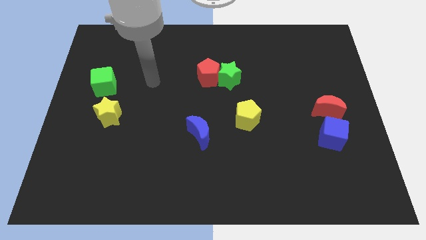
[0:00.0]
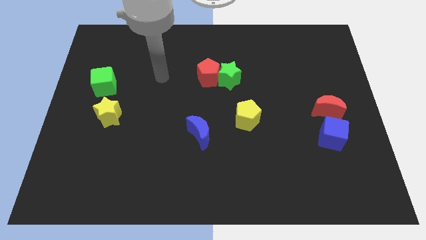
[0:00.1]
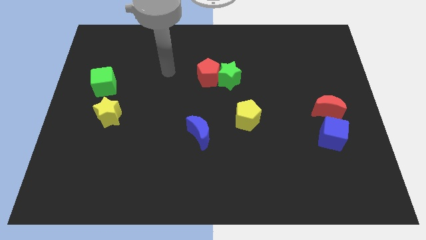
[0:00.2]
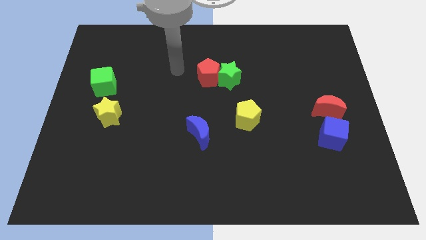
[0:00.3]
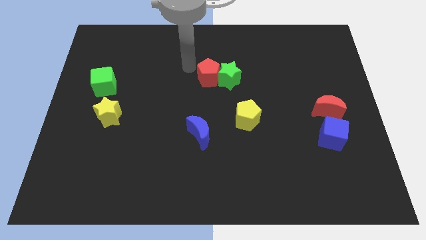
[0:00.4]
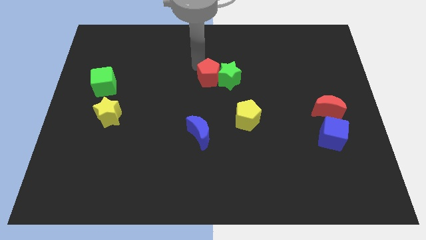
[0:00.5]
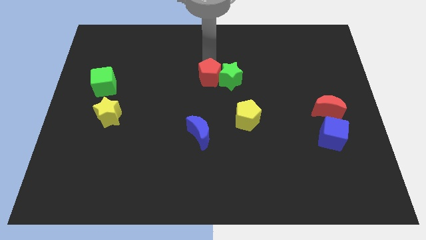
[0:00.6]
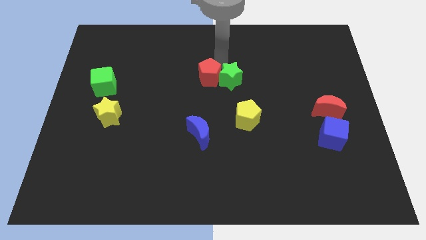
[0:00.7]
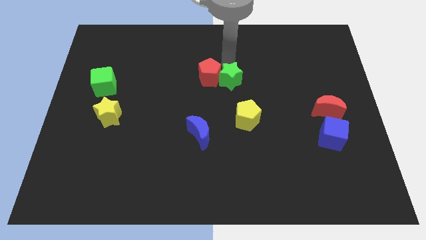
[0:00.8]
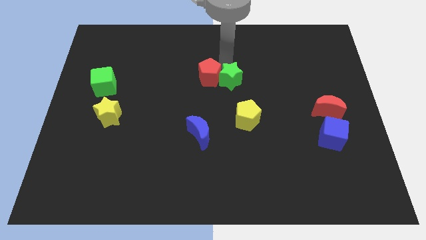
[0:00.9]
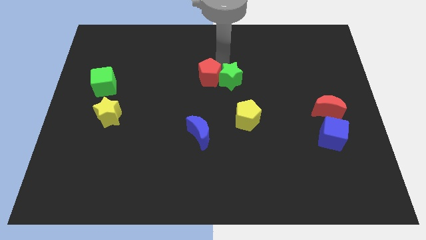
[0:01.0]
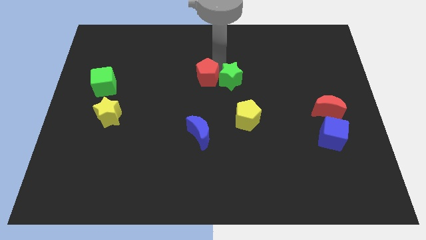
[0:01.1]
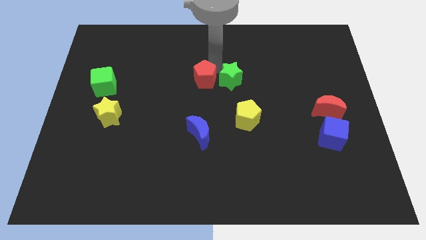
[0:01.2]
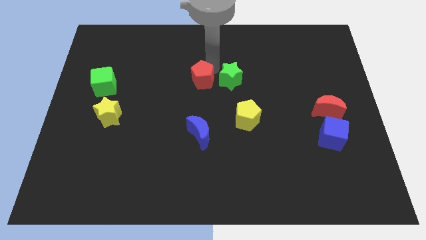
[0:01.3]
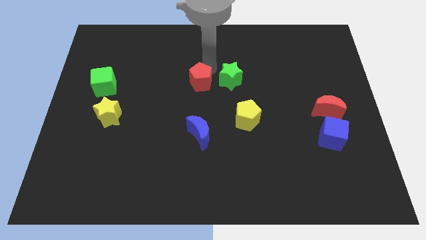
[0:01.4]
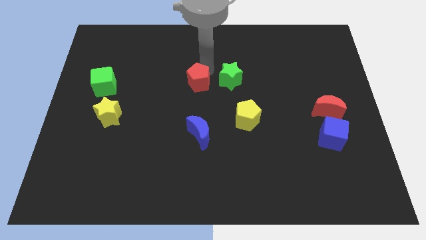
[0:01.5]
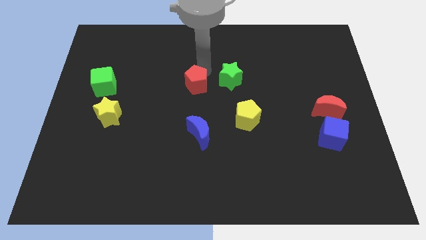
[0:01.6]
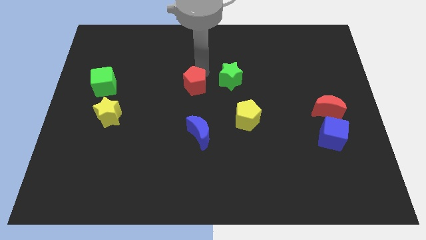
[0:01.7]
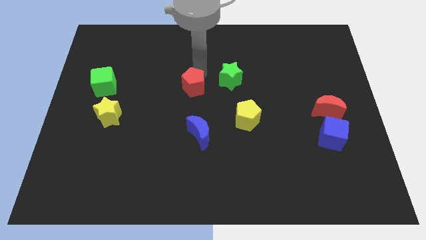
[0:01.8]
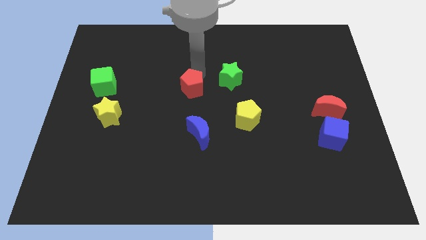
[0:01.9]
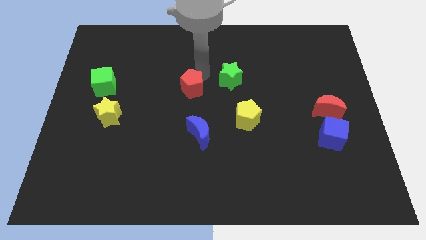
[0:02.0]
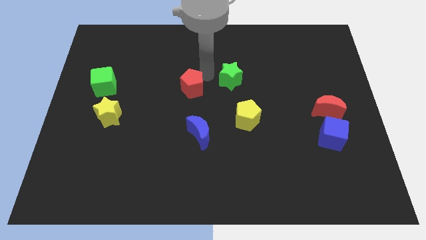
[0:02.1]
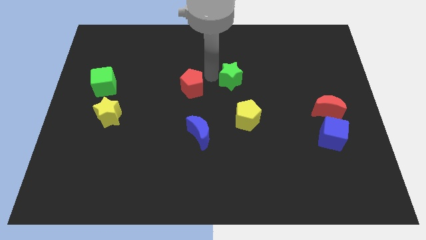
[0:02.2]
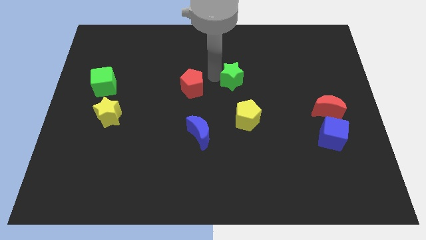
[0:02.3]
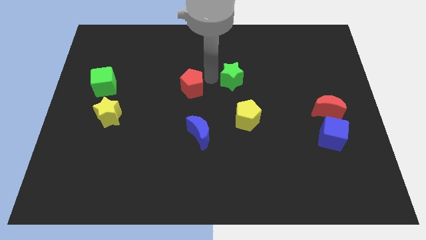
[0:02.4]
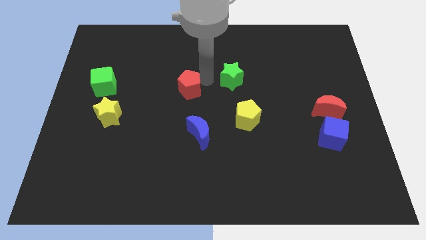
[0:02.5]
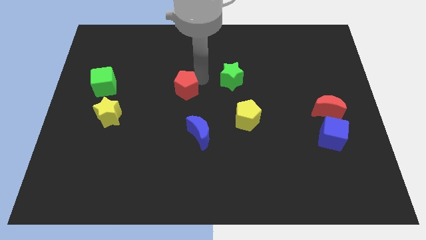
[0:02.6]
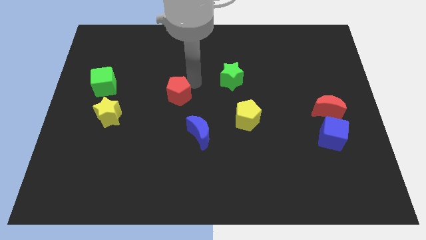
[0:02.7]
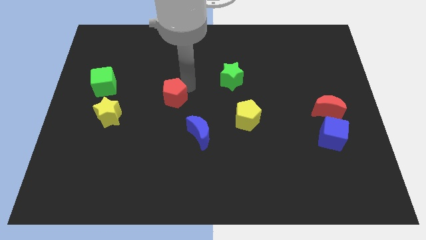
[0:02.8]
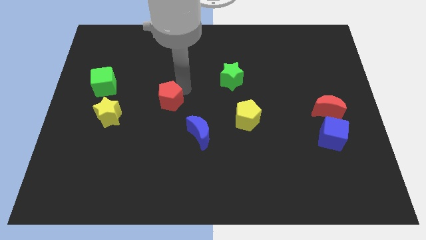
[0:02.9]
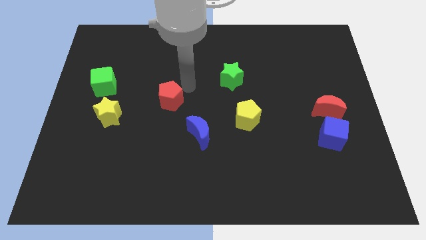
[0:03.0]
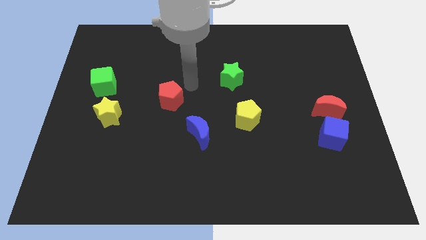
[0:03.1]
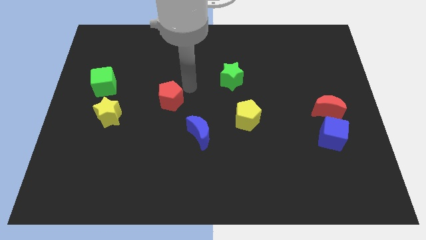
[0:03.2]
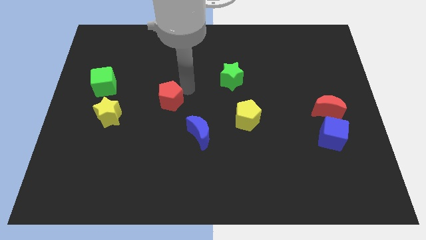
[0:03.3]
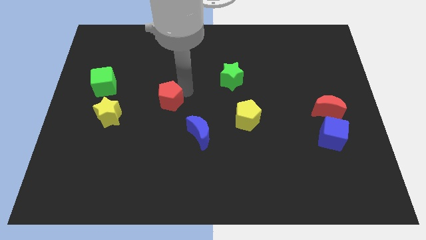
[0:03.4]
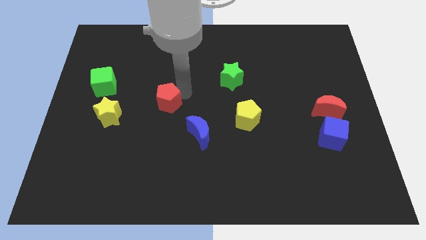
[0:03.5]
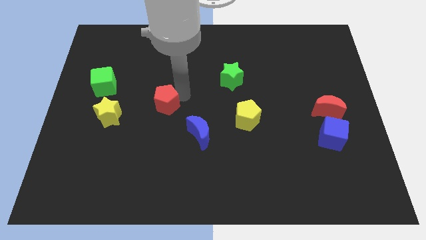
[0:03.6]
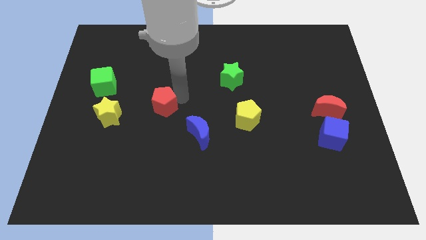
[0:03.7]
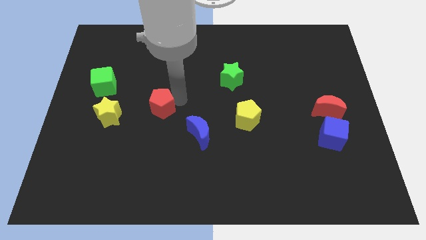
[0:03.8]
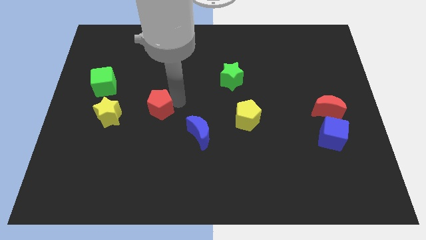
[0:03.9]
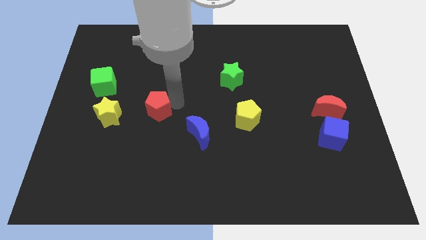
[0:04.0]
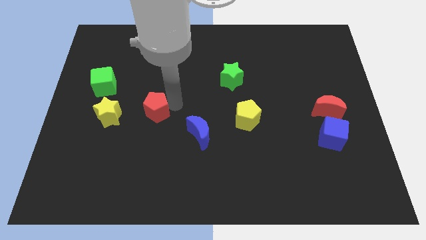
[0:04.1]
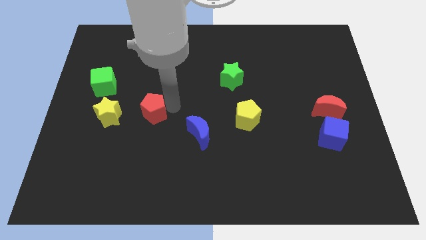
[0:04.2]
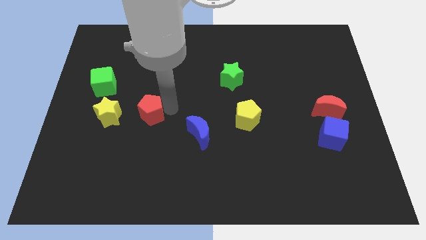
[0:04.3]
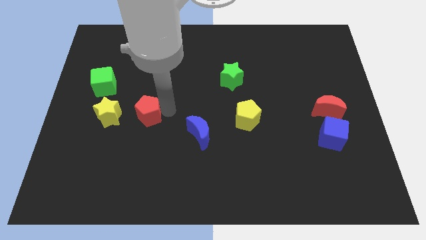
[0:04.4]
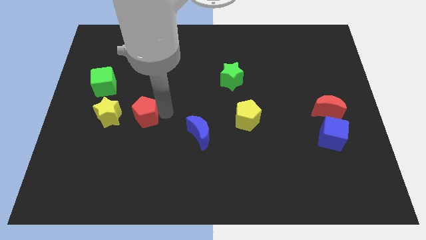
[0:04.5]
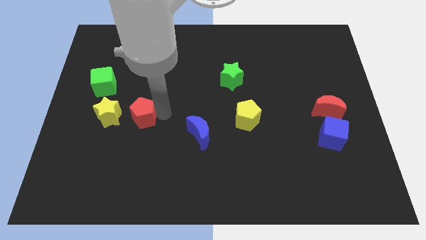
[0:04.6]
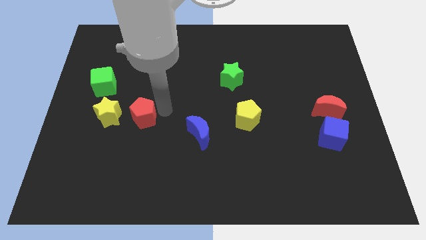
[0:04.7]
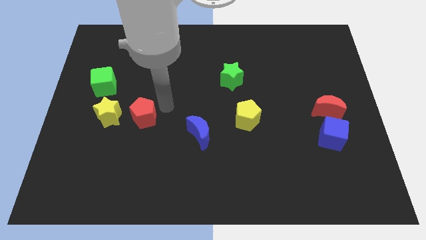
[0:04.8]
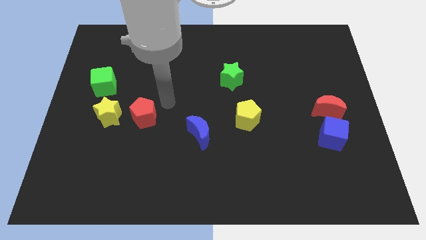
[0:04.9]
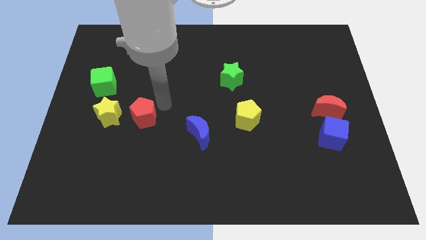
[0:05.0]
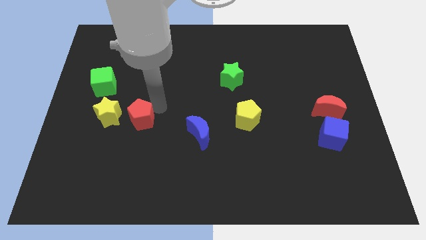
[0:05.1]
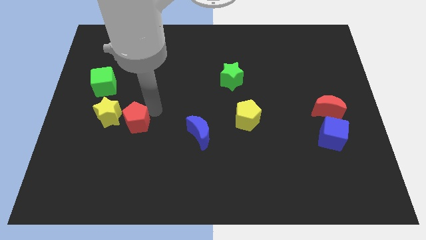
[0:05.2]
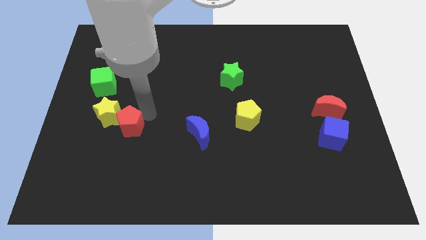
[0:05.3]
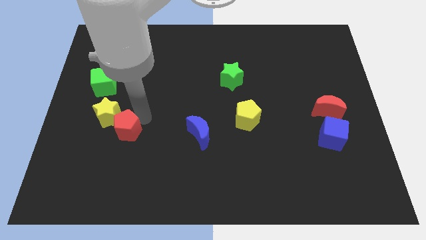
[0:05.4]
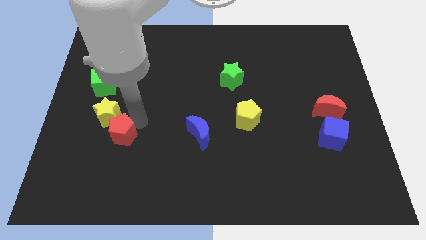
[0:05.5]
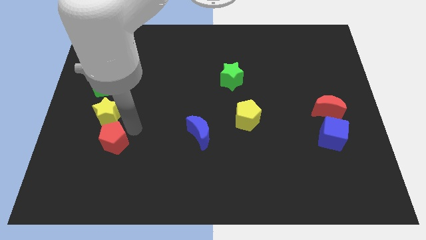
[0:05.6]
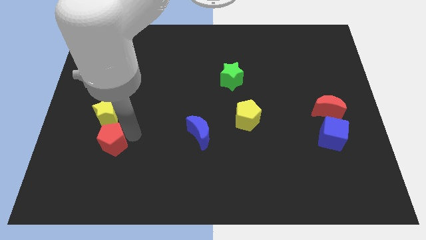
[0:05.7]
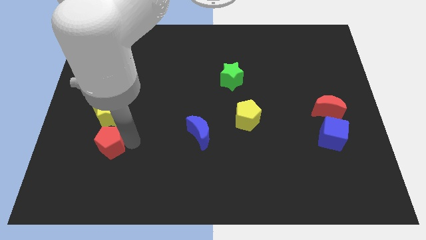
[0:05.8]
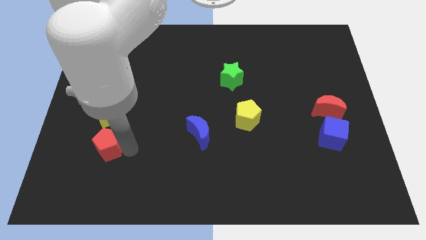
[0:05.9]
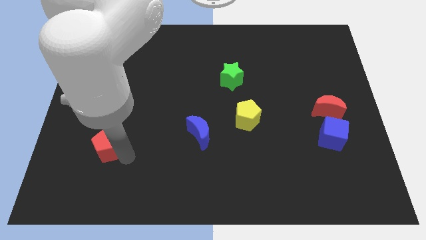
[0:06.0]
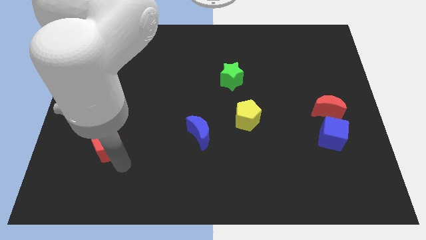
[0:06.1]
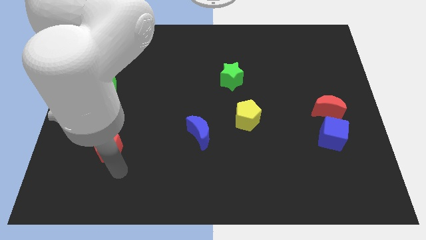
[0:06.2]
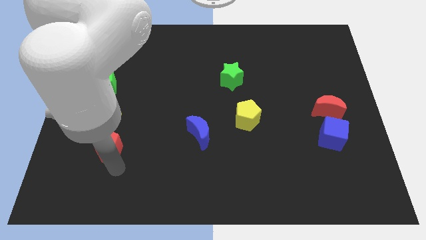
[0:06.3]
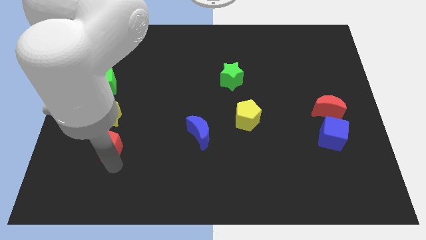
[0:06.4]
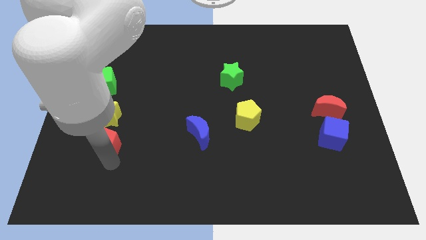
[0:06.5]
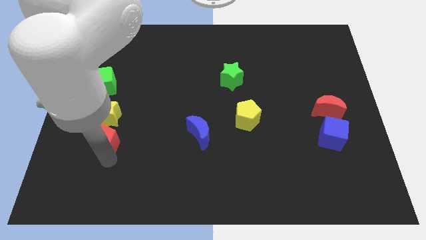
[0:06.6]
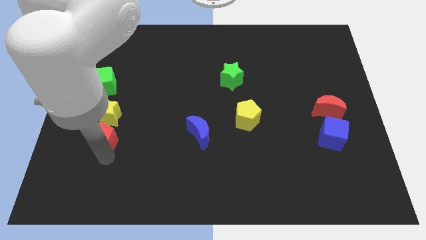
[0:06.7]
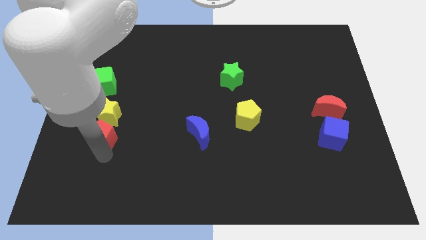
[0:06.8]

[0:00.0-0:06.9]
put the red pentagon to the bottom of the green cube

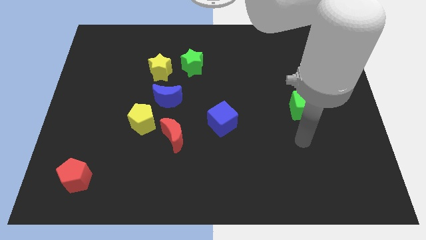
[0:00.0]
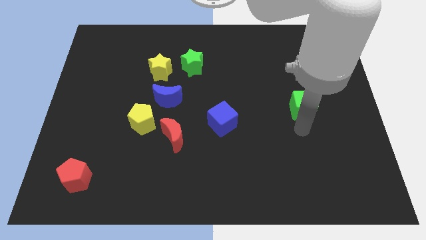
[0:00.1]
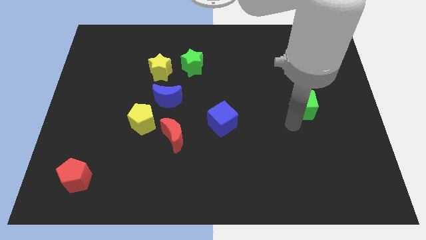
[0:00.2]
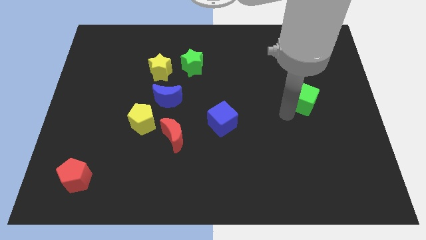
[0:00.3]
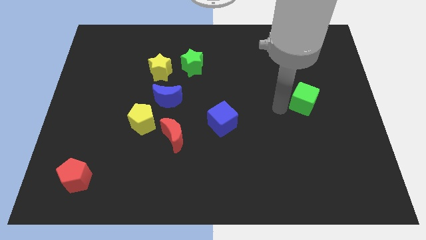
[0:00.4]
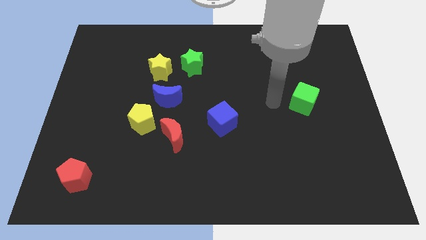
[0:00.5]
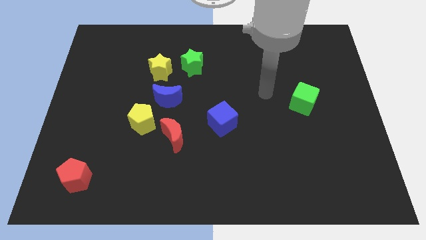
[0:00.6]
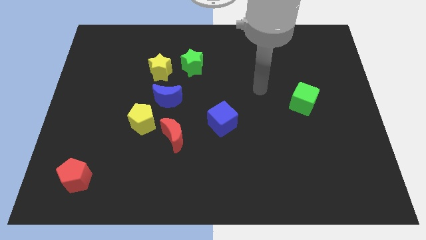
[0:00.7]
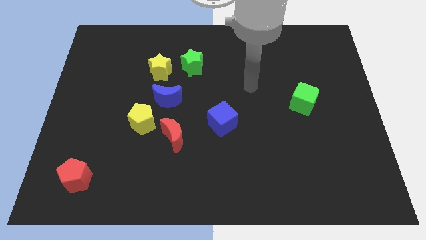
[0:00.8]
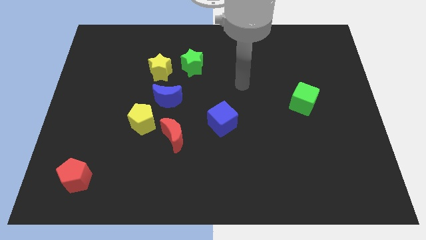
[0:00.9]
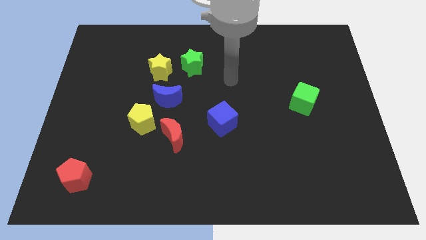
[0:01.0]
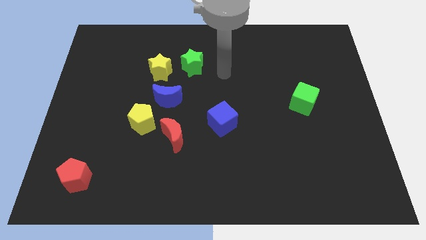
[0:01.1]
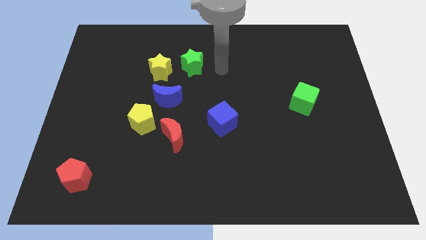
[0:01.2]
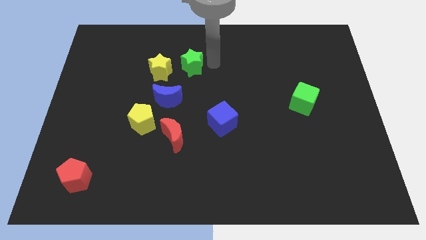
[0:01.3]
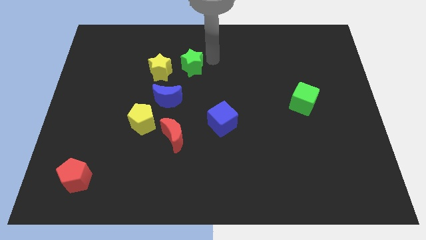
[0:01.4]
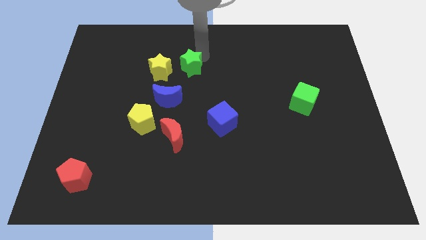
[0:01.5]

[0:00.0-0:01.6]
slide the green star to the top right of the blue moon
